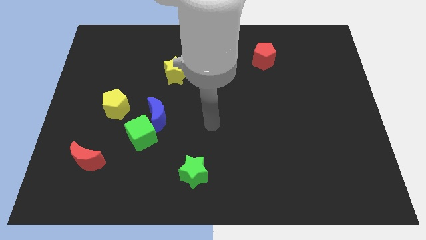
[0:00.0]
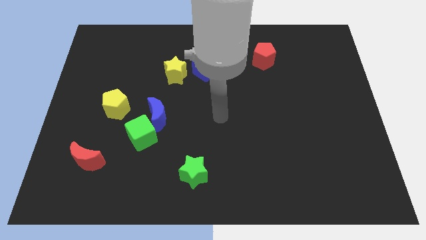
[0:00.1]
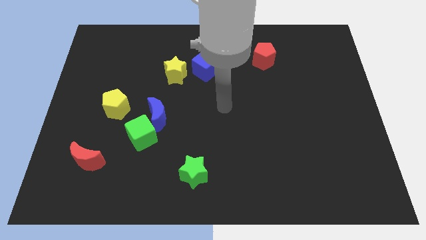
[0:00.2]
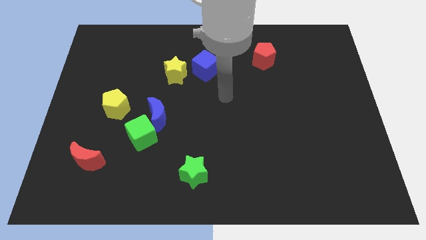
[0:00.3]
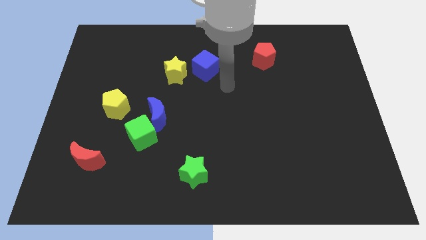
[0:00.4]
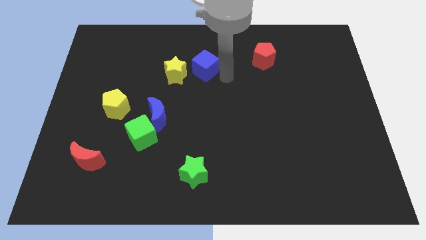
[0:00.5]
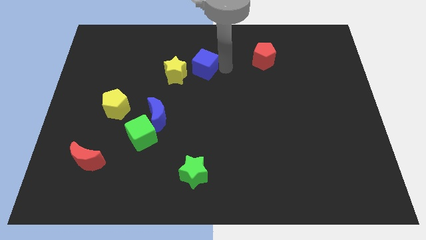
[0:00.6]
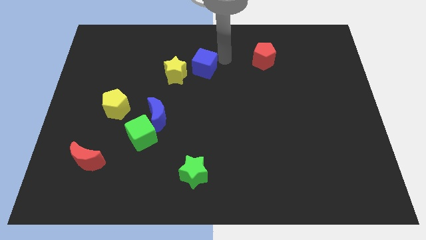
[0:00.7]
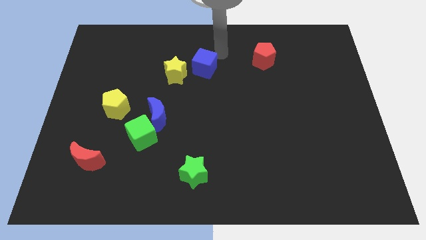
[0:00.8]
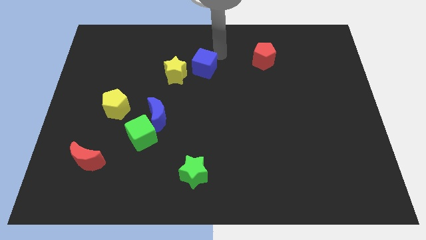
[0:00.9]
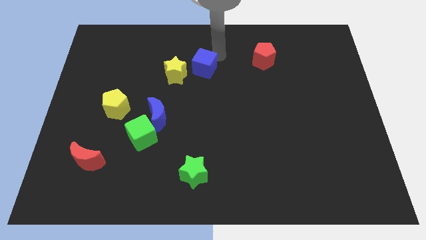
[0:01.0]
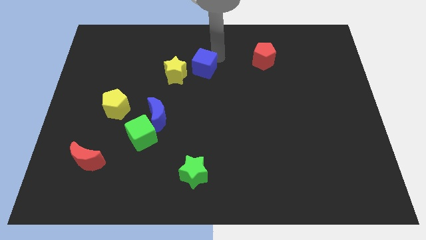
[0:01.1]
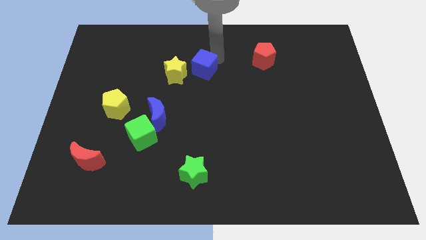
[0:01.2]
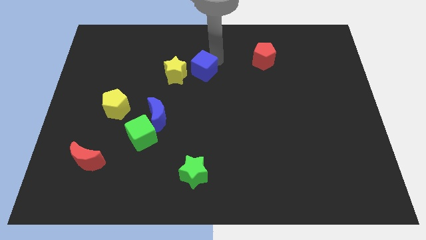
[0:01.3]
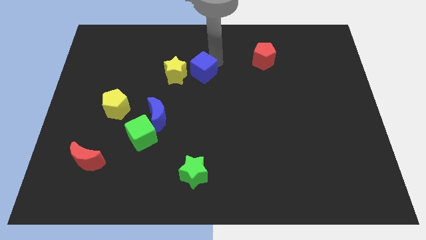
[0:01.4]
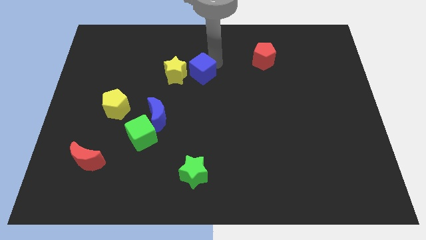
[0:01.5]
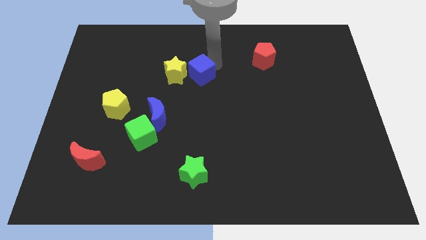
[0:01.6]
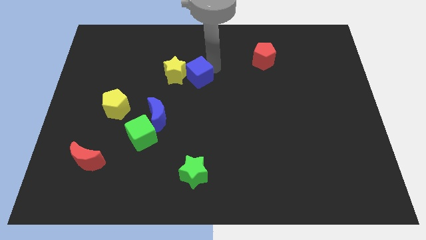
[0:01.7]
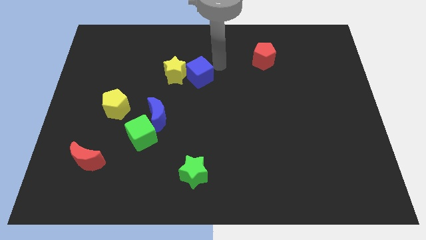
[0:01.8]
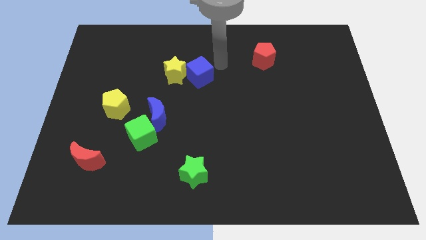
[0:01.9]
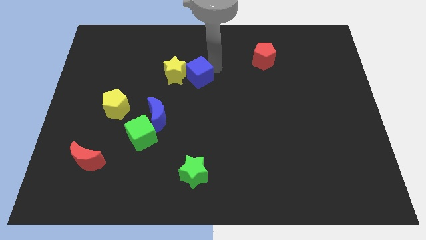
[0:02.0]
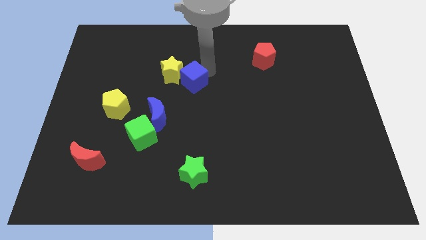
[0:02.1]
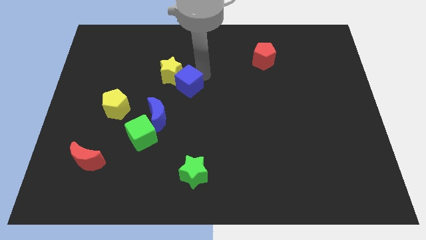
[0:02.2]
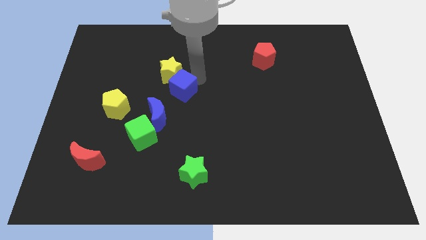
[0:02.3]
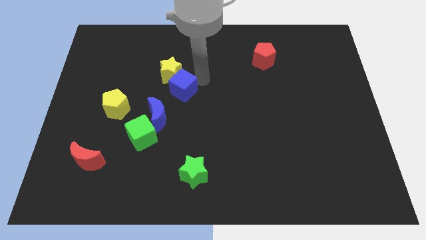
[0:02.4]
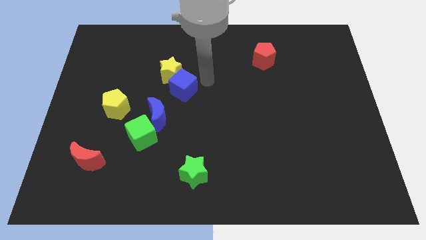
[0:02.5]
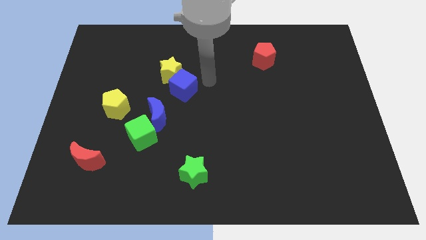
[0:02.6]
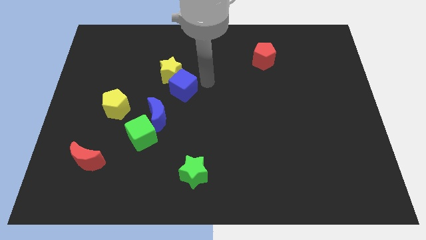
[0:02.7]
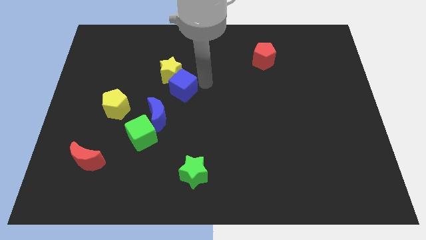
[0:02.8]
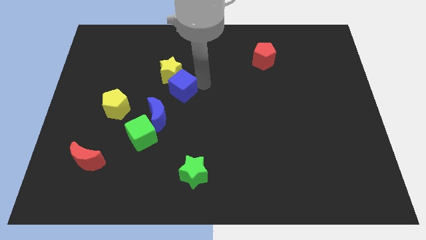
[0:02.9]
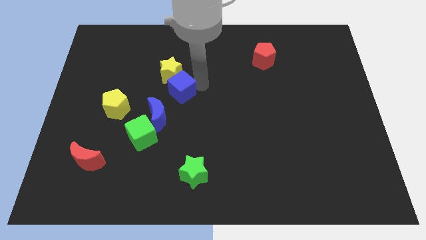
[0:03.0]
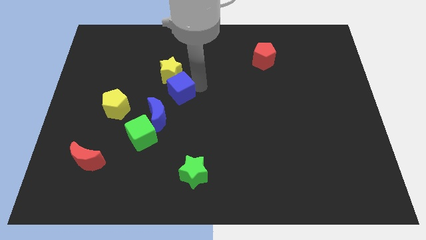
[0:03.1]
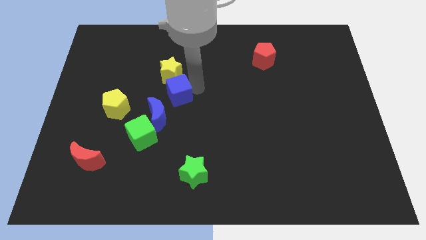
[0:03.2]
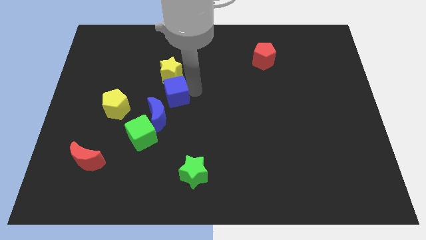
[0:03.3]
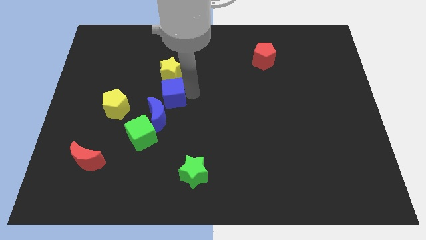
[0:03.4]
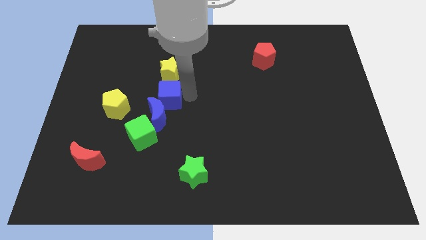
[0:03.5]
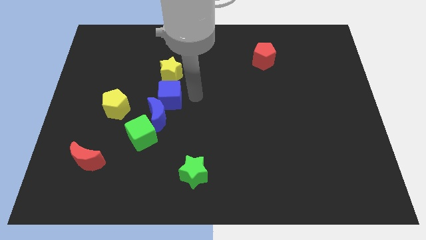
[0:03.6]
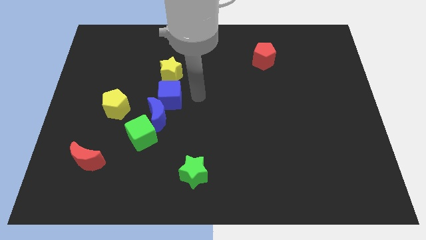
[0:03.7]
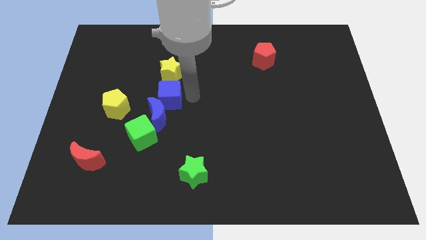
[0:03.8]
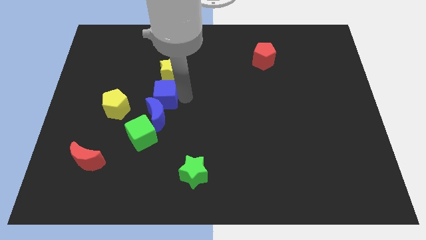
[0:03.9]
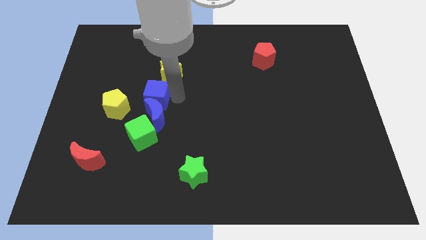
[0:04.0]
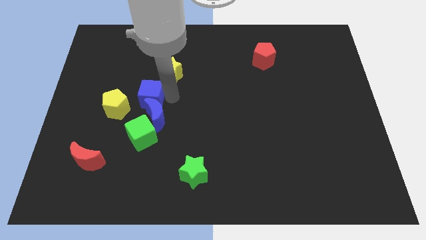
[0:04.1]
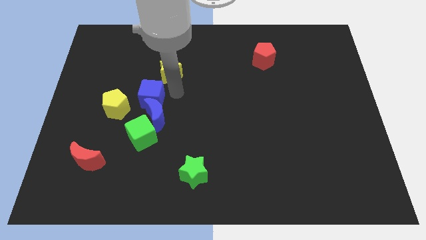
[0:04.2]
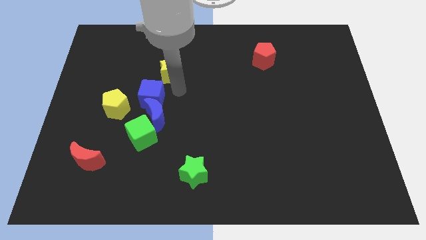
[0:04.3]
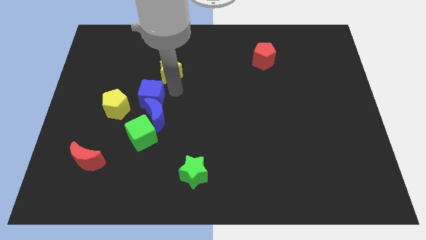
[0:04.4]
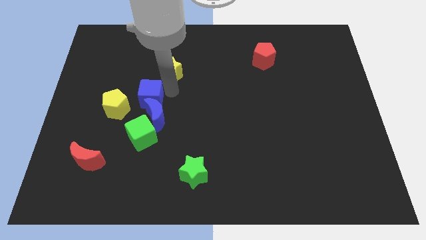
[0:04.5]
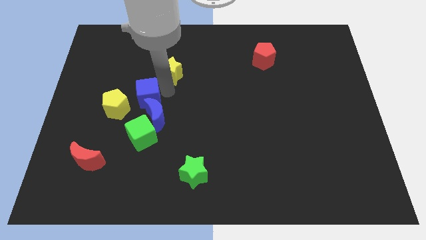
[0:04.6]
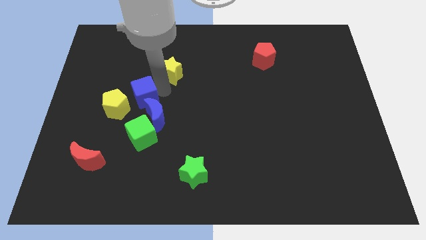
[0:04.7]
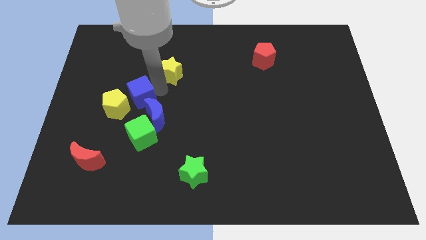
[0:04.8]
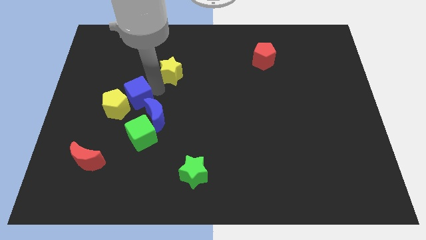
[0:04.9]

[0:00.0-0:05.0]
push the blue cube towards the yellow pentagon

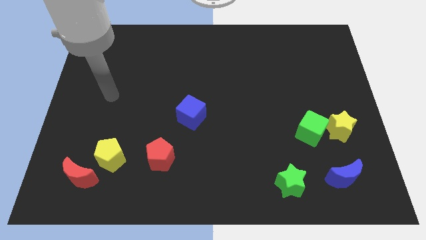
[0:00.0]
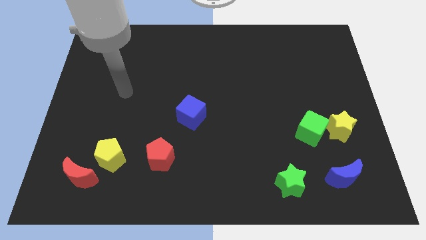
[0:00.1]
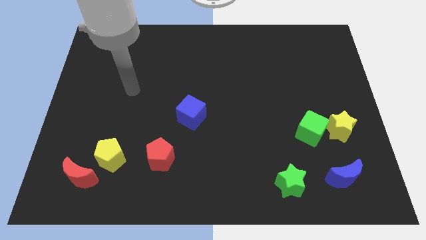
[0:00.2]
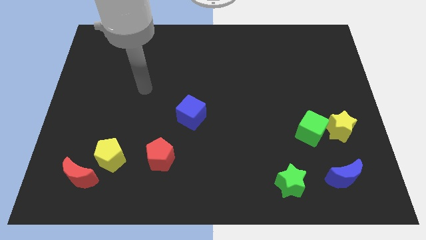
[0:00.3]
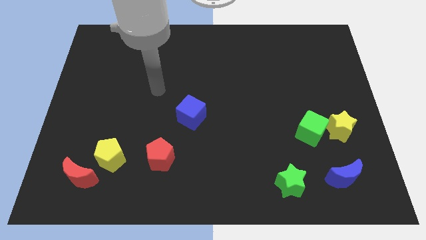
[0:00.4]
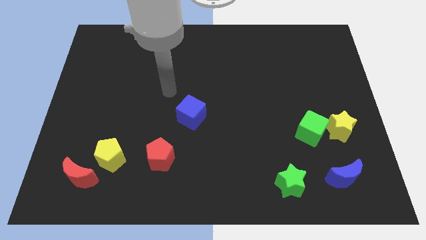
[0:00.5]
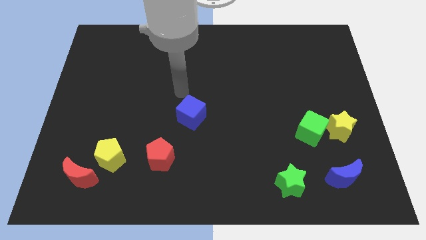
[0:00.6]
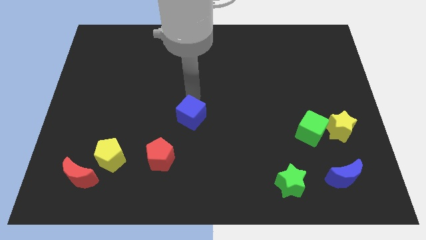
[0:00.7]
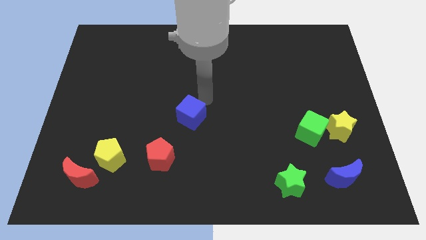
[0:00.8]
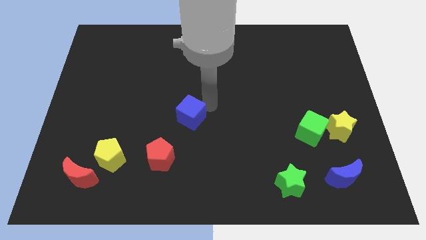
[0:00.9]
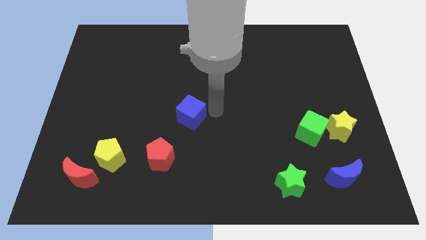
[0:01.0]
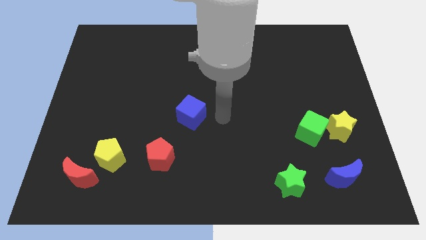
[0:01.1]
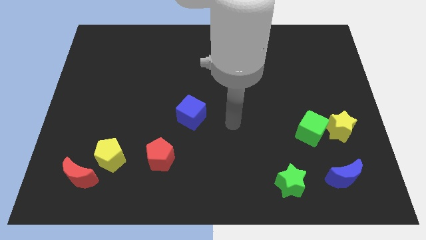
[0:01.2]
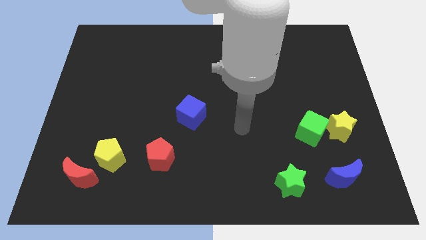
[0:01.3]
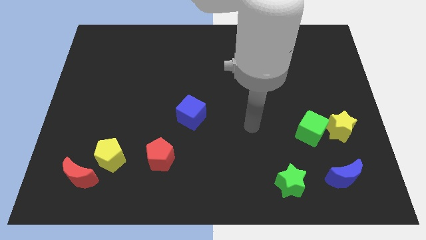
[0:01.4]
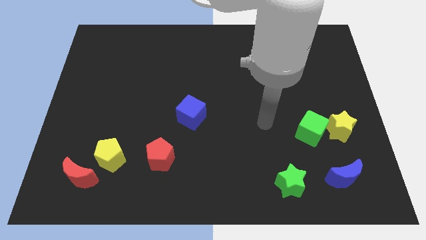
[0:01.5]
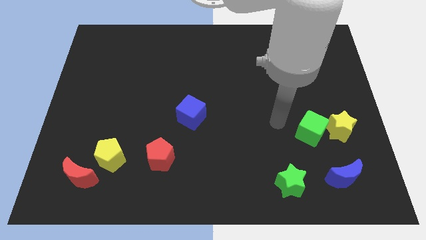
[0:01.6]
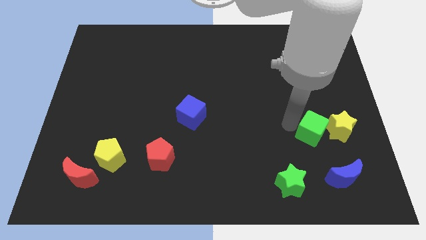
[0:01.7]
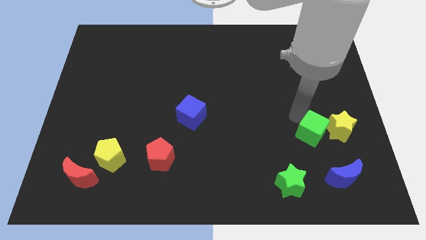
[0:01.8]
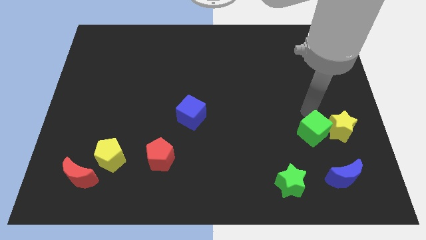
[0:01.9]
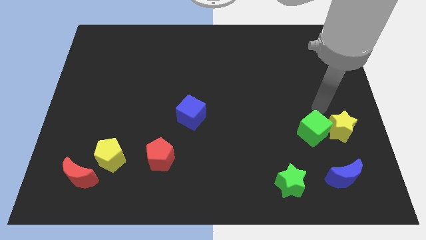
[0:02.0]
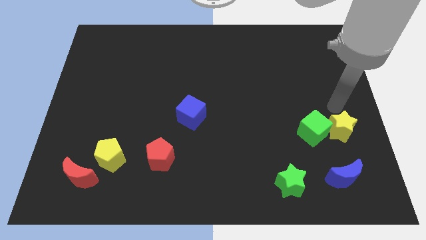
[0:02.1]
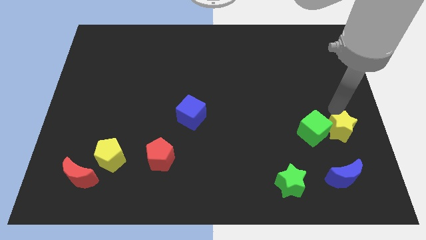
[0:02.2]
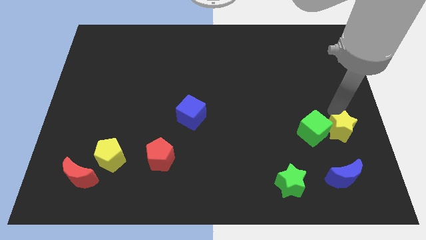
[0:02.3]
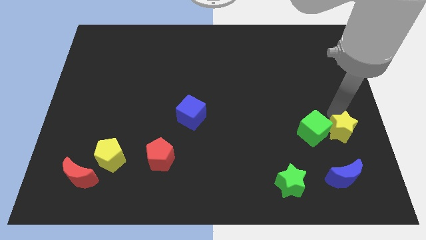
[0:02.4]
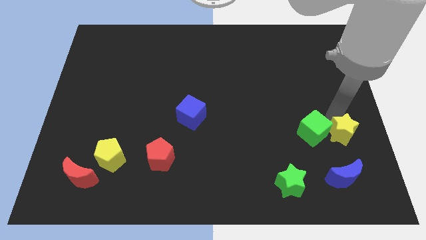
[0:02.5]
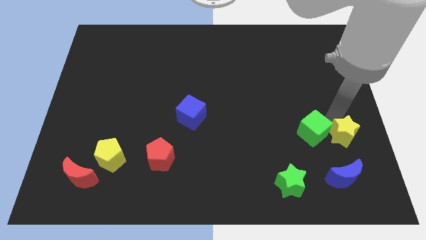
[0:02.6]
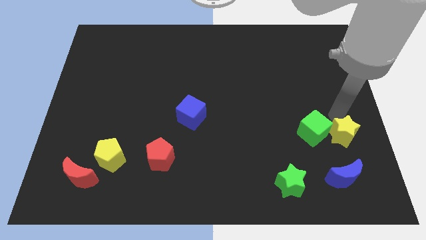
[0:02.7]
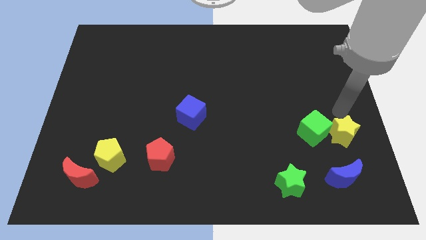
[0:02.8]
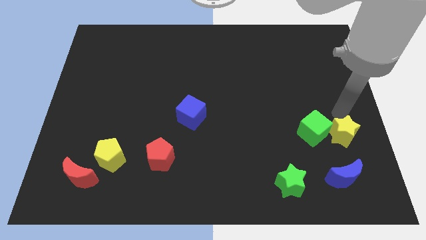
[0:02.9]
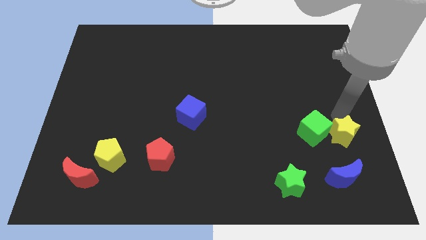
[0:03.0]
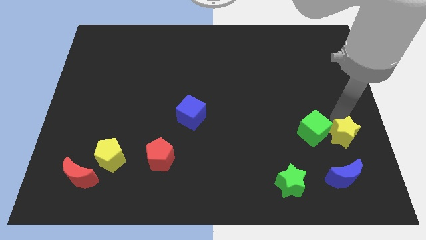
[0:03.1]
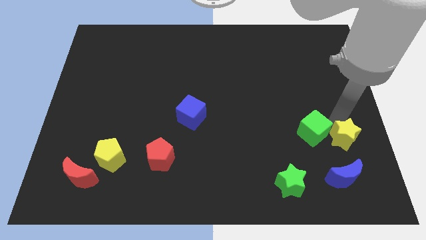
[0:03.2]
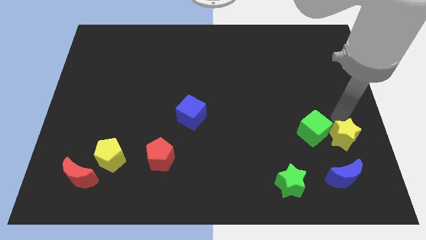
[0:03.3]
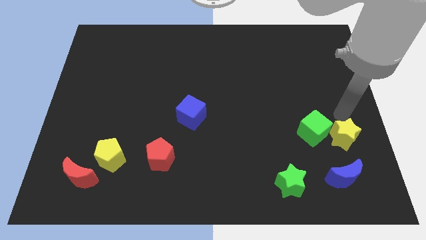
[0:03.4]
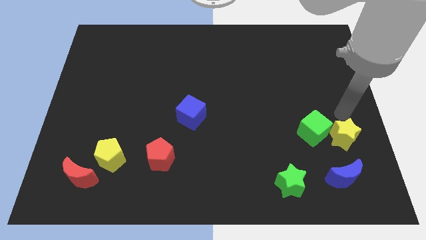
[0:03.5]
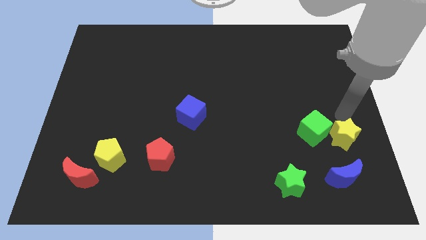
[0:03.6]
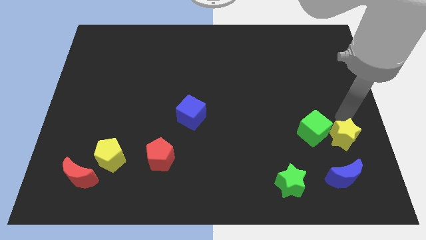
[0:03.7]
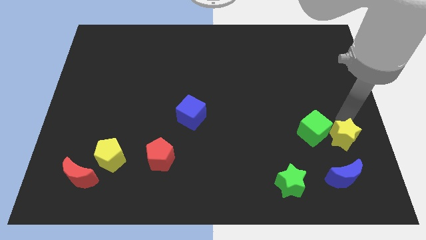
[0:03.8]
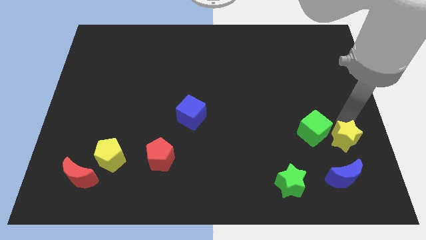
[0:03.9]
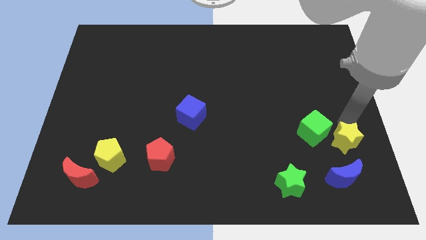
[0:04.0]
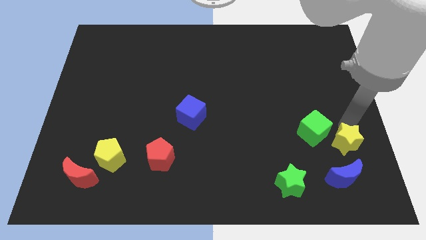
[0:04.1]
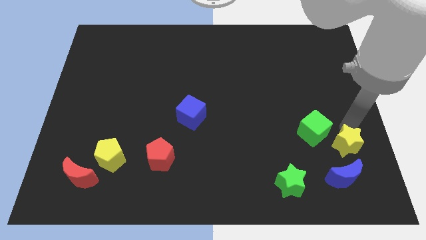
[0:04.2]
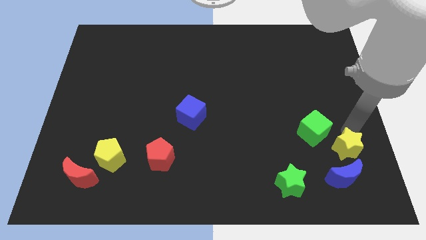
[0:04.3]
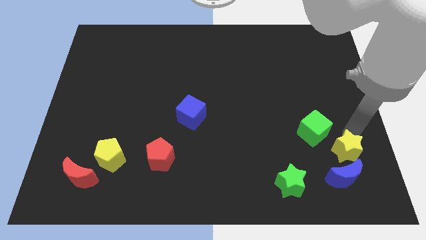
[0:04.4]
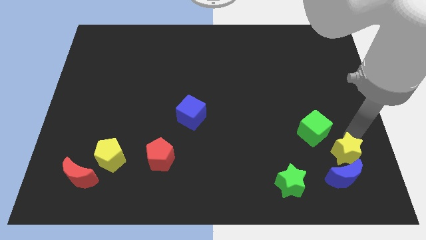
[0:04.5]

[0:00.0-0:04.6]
move the yellow star next to the blue moon
